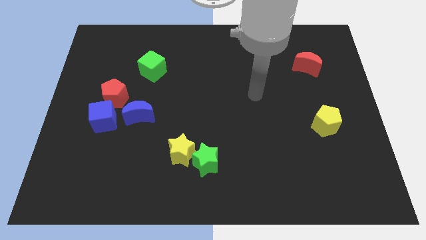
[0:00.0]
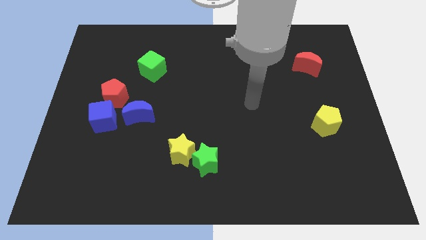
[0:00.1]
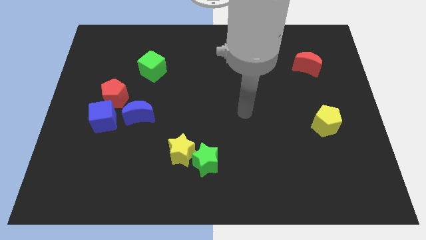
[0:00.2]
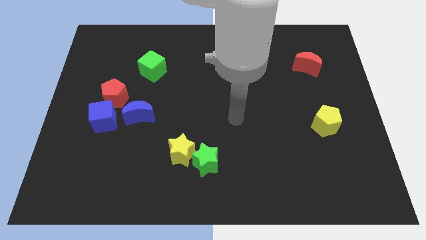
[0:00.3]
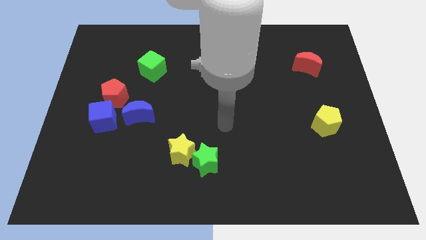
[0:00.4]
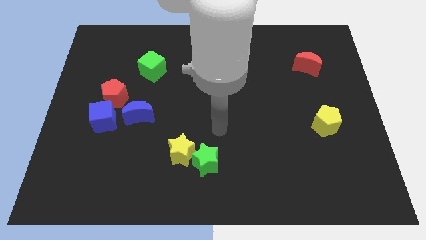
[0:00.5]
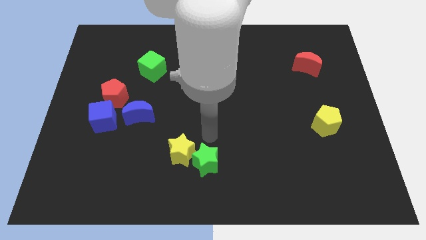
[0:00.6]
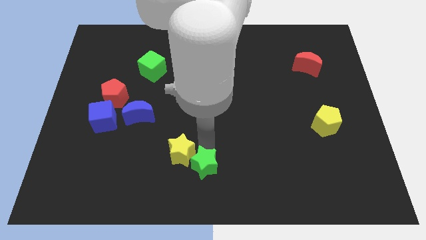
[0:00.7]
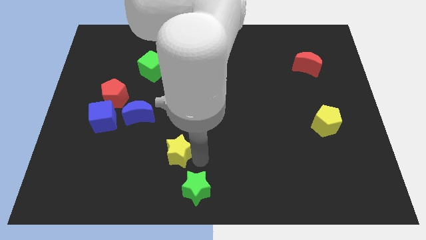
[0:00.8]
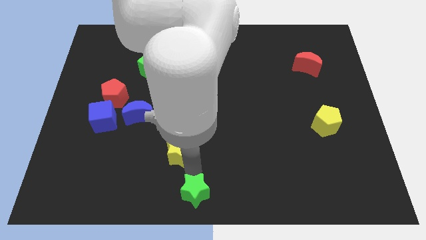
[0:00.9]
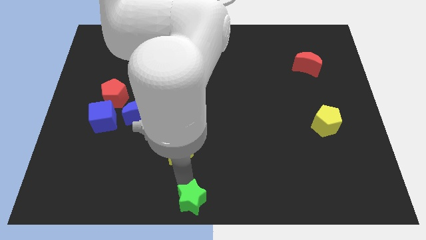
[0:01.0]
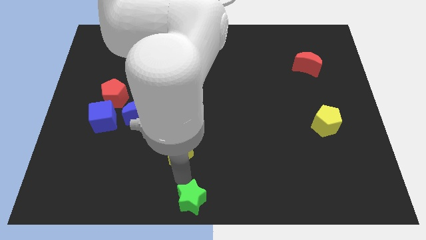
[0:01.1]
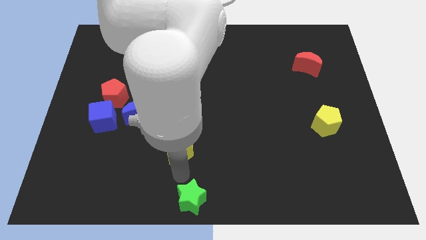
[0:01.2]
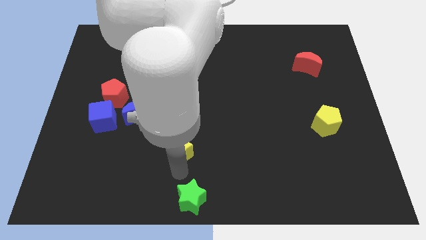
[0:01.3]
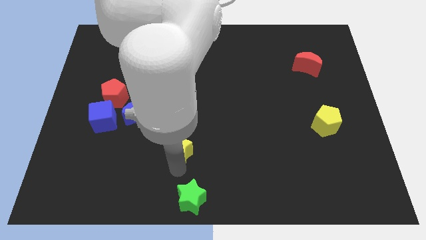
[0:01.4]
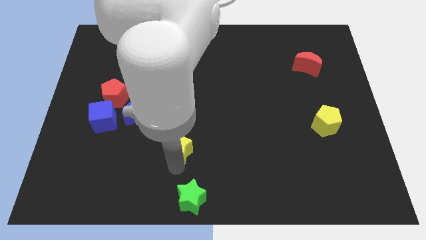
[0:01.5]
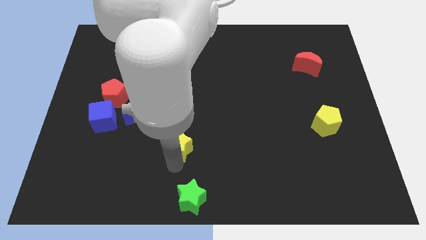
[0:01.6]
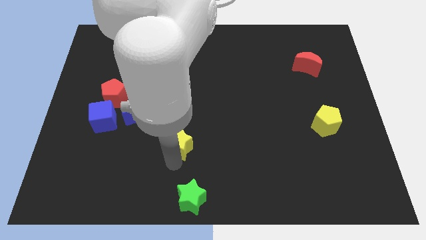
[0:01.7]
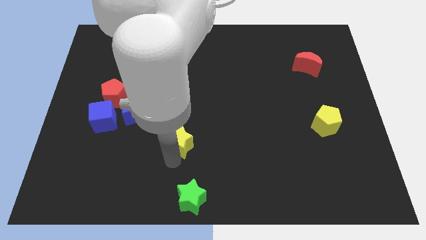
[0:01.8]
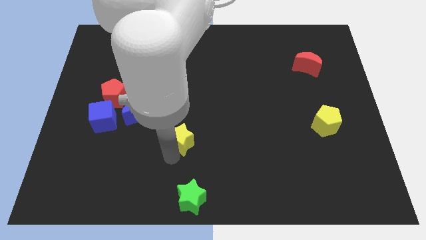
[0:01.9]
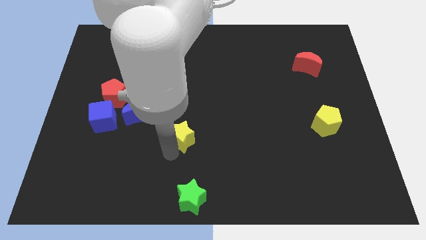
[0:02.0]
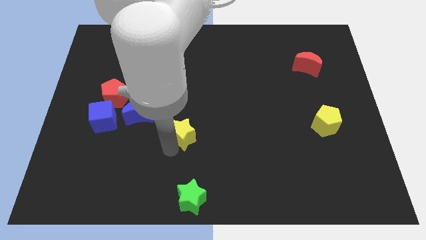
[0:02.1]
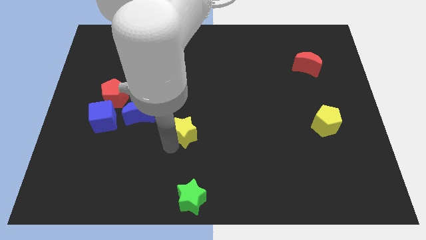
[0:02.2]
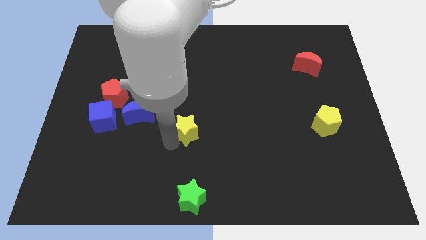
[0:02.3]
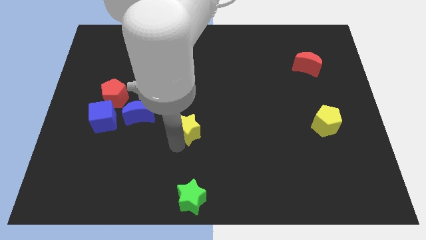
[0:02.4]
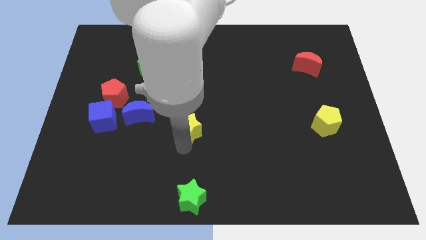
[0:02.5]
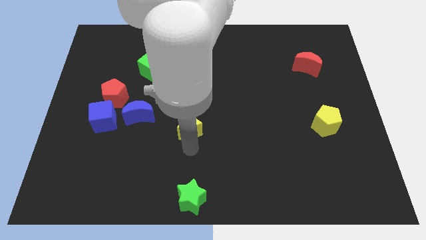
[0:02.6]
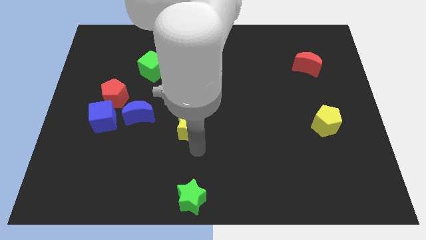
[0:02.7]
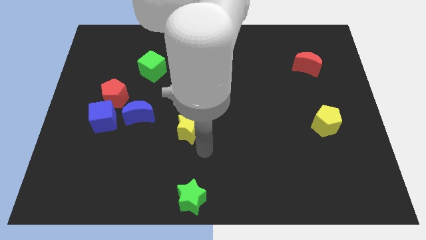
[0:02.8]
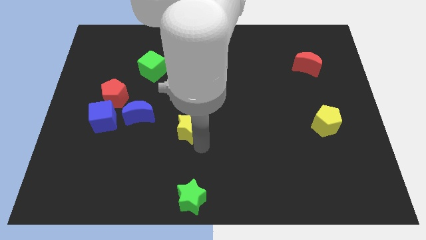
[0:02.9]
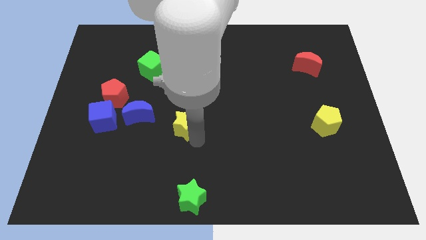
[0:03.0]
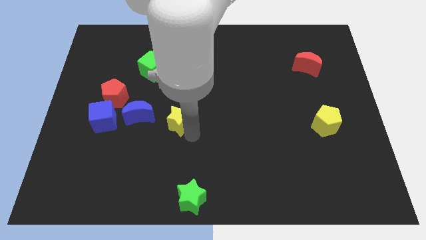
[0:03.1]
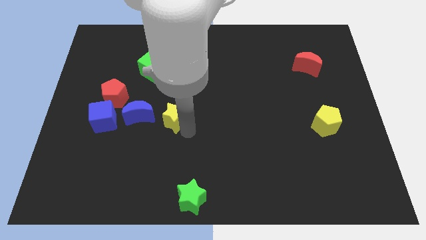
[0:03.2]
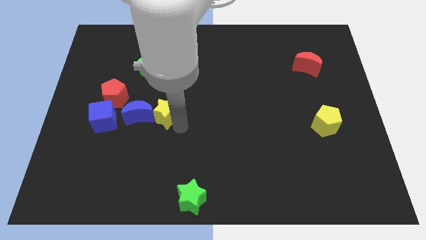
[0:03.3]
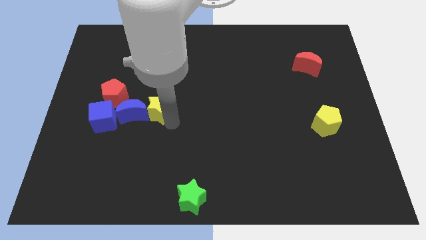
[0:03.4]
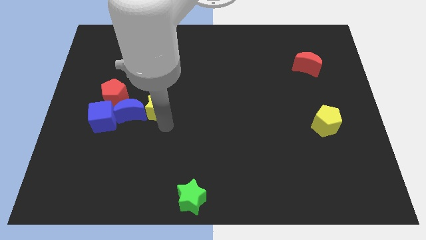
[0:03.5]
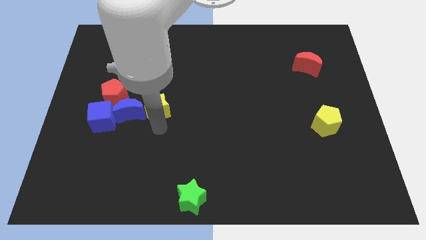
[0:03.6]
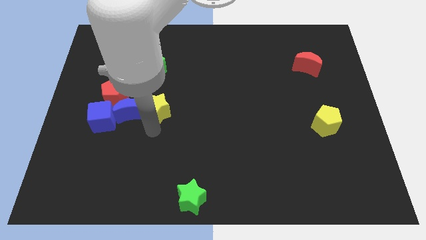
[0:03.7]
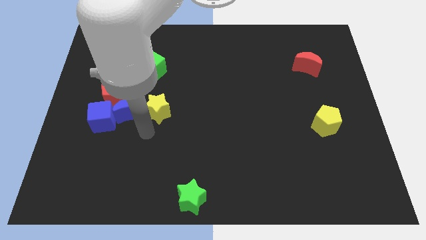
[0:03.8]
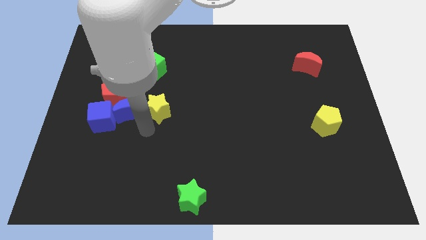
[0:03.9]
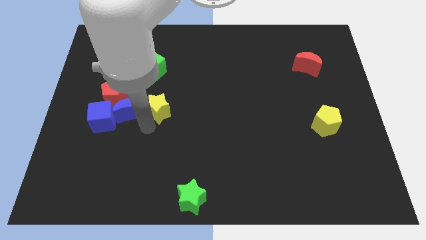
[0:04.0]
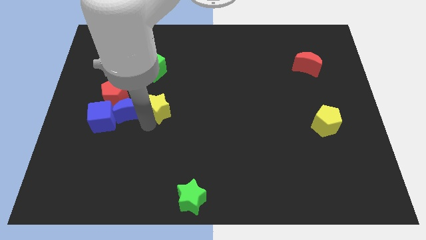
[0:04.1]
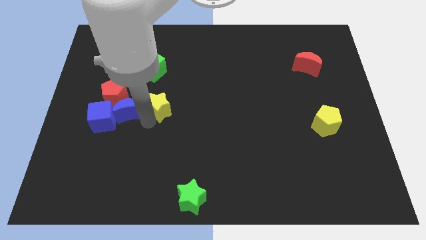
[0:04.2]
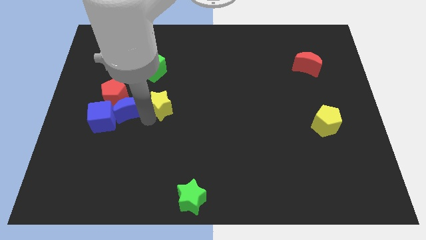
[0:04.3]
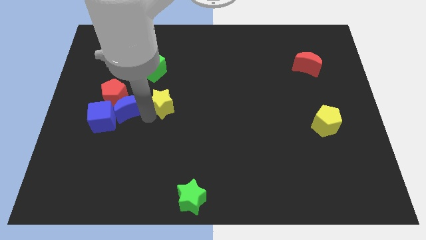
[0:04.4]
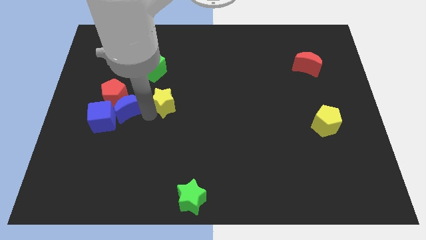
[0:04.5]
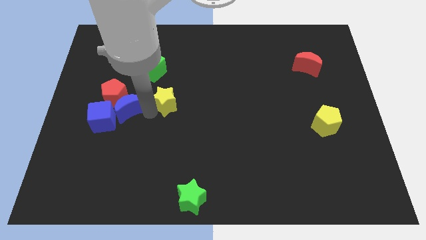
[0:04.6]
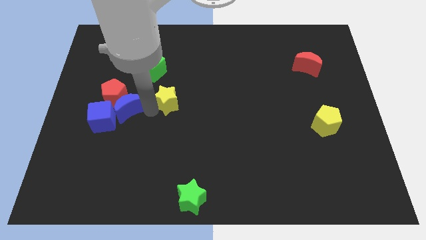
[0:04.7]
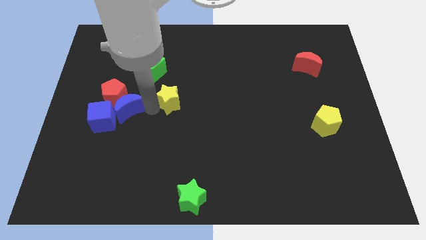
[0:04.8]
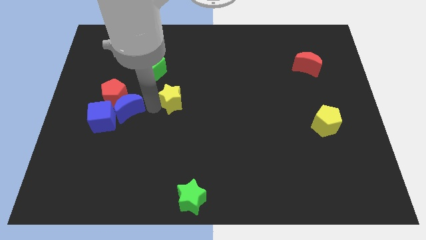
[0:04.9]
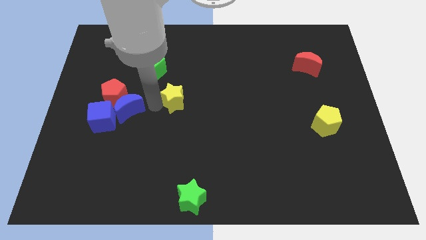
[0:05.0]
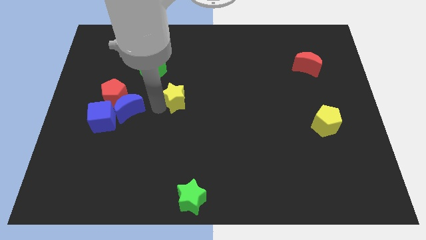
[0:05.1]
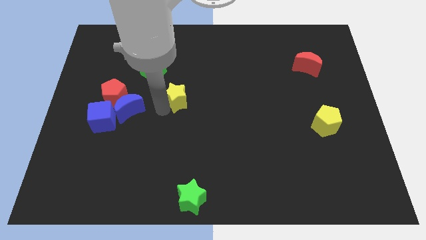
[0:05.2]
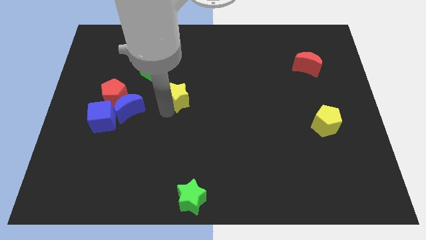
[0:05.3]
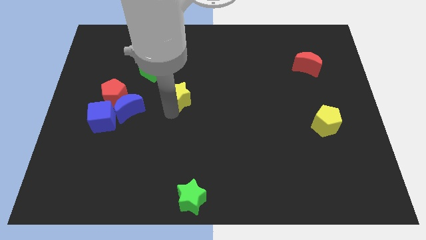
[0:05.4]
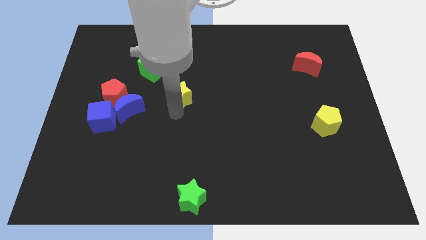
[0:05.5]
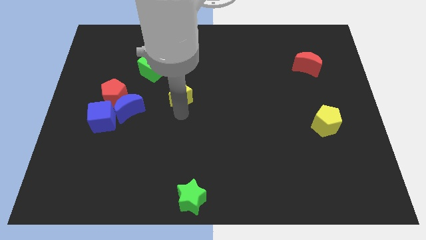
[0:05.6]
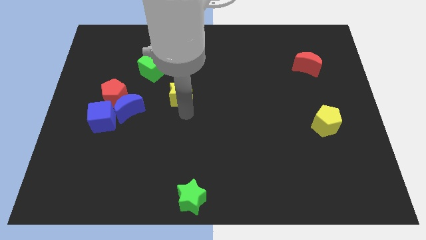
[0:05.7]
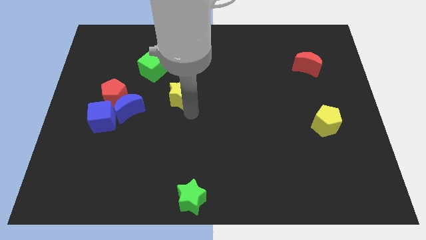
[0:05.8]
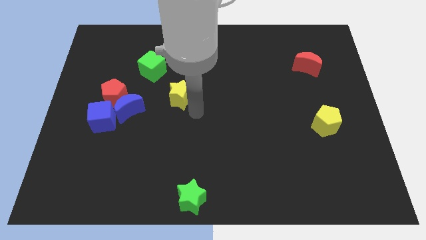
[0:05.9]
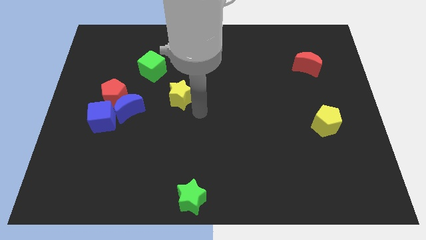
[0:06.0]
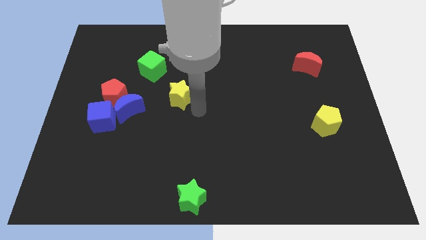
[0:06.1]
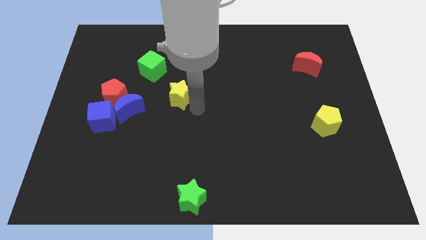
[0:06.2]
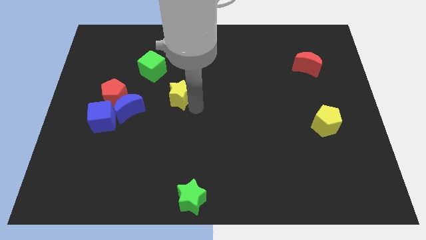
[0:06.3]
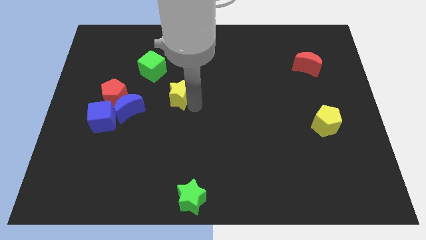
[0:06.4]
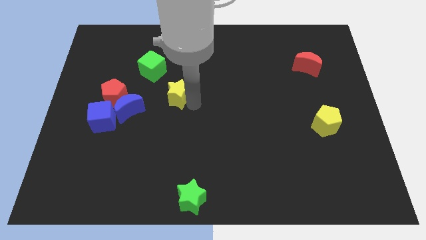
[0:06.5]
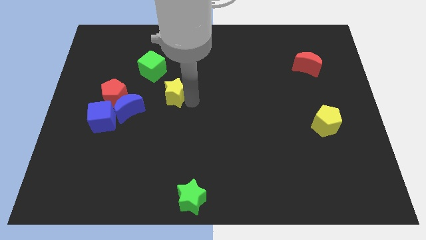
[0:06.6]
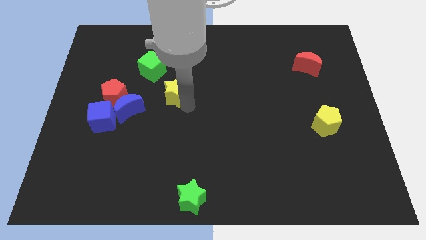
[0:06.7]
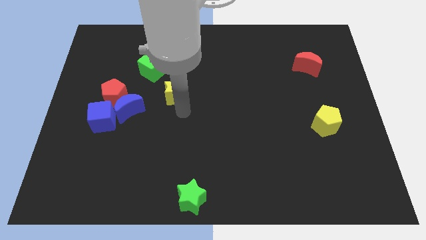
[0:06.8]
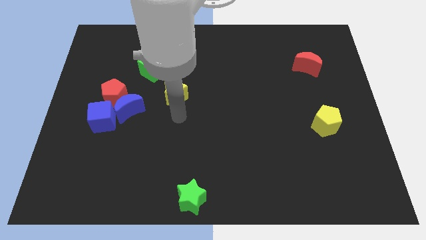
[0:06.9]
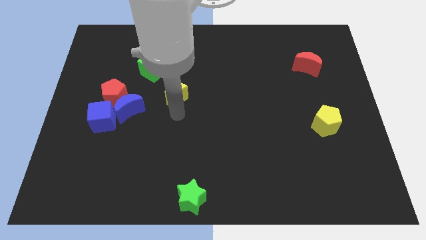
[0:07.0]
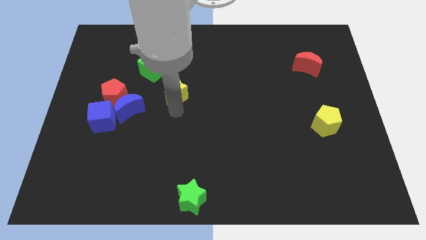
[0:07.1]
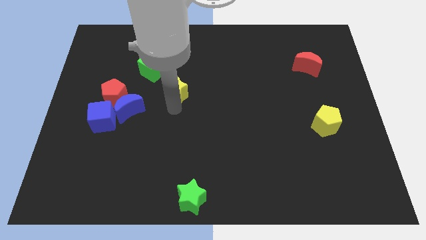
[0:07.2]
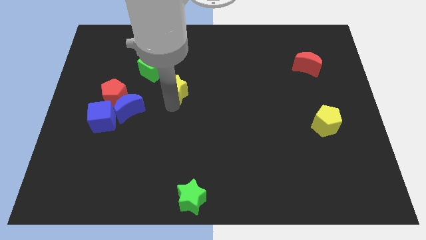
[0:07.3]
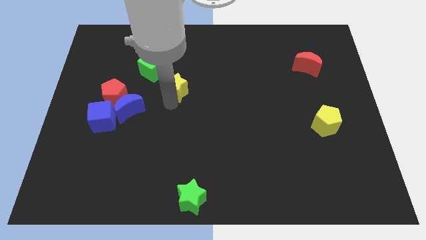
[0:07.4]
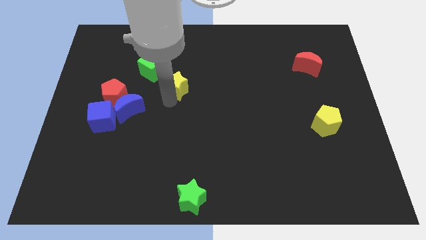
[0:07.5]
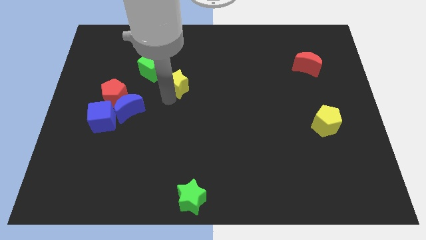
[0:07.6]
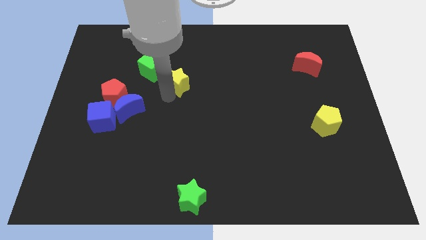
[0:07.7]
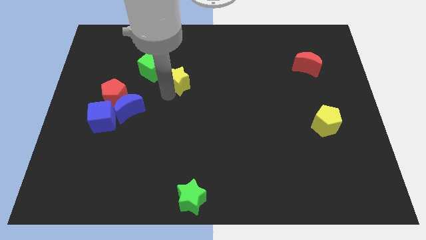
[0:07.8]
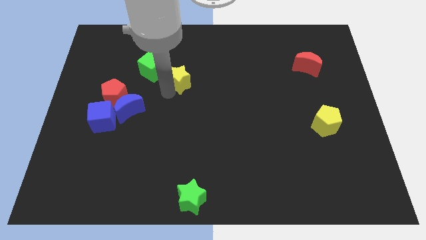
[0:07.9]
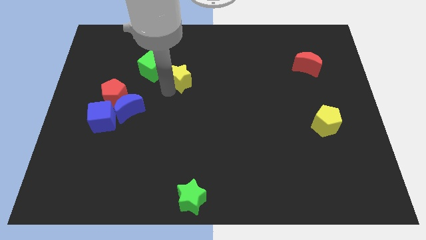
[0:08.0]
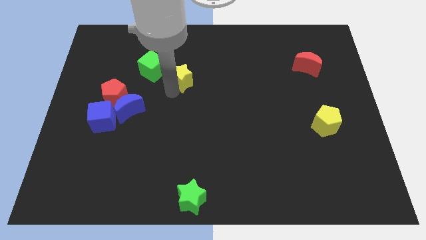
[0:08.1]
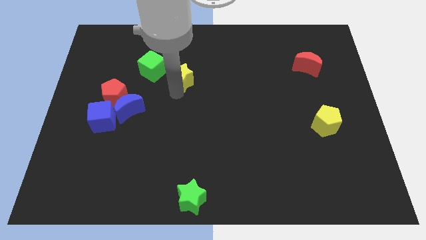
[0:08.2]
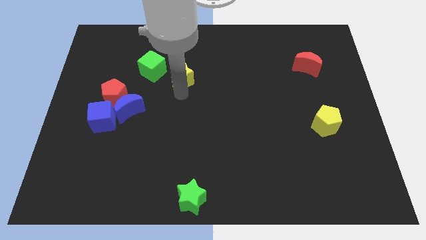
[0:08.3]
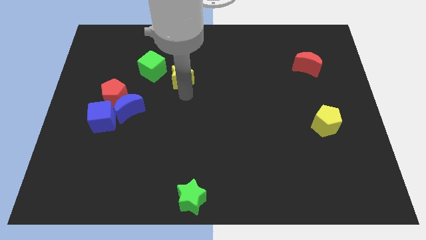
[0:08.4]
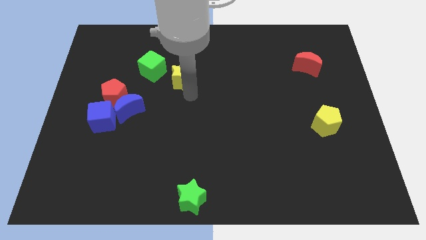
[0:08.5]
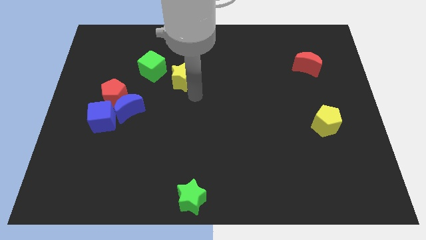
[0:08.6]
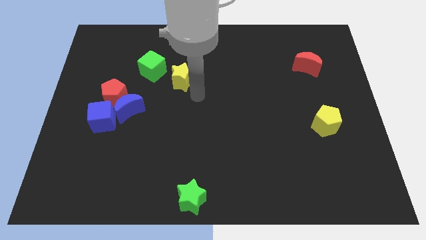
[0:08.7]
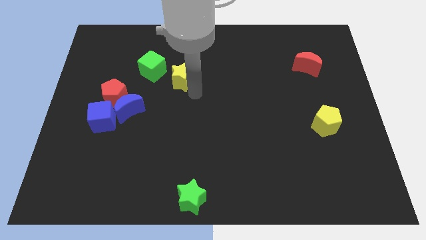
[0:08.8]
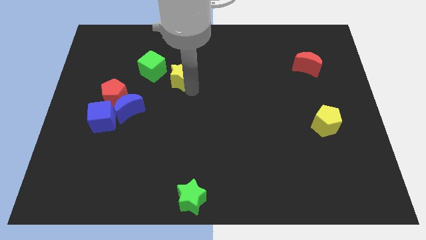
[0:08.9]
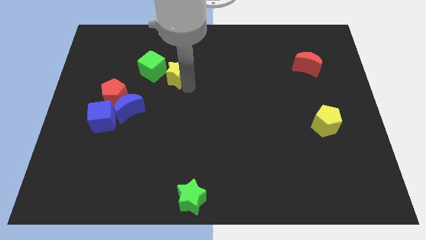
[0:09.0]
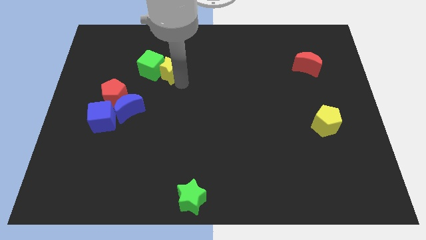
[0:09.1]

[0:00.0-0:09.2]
push the yellow star to the top right of the green cube
